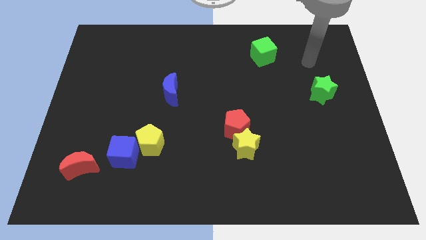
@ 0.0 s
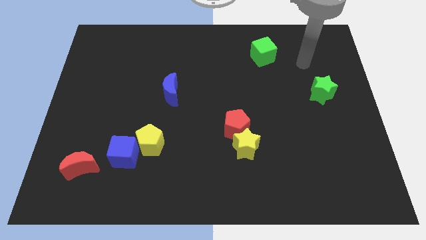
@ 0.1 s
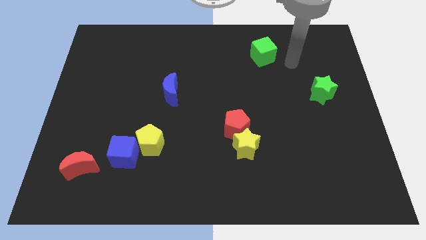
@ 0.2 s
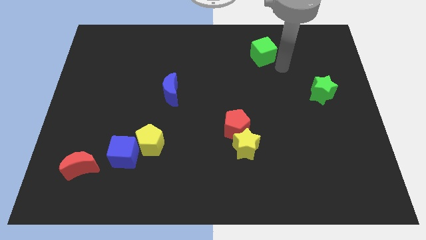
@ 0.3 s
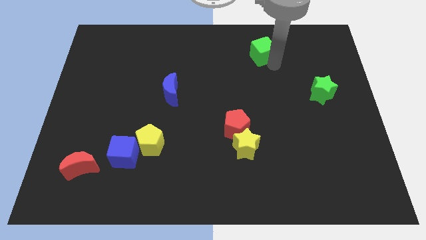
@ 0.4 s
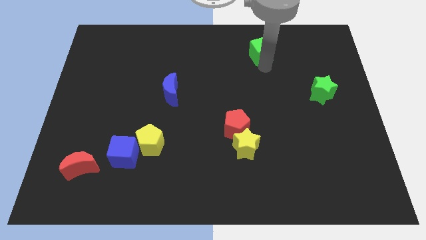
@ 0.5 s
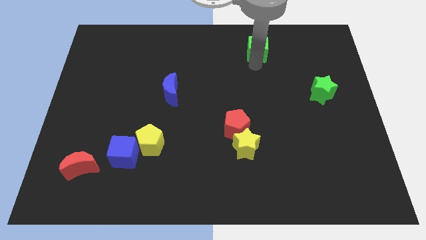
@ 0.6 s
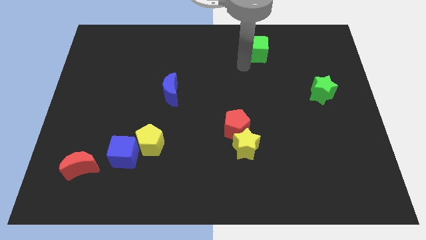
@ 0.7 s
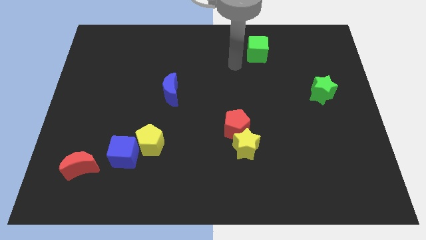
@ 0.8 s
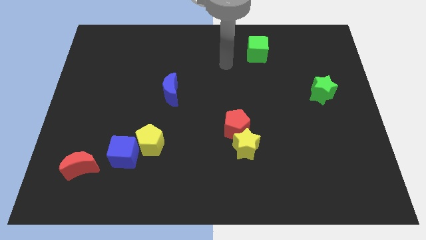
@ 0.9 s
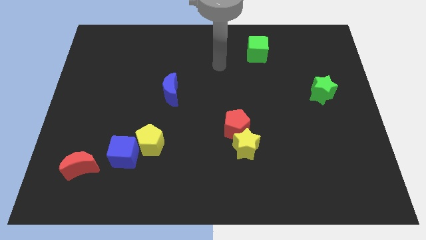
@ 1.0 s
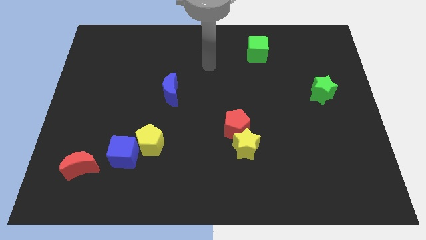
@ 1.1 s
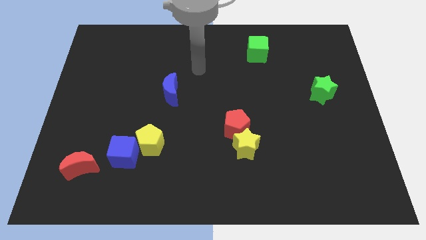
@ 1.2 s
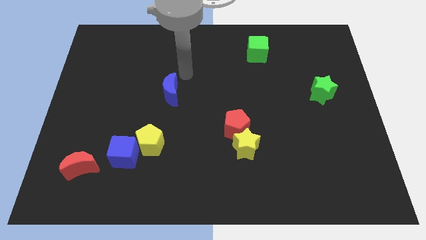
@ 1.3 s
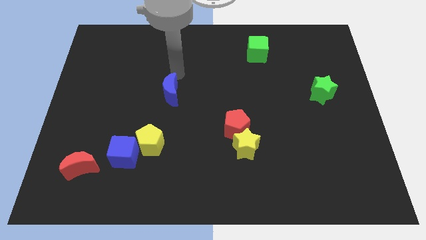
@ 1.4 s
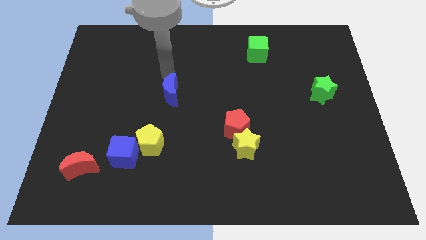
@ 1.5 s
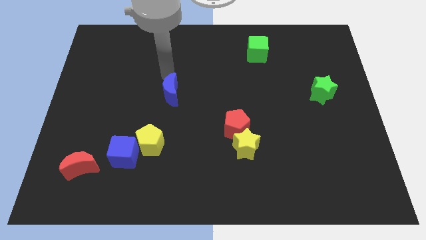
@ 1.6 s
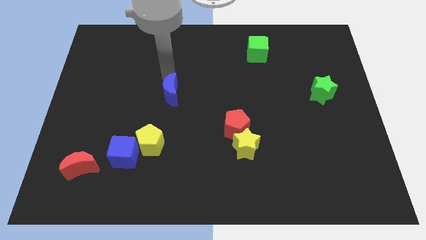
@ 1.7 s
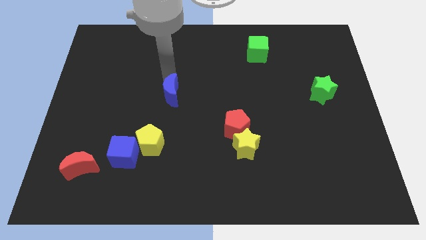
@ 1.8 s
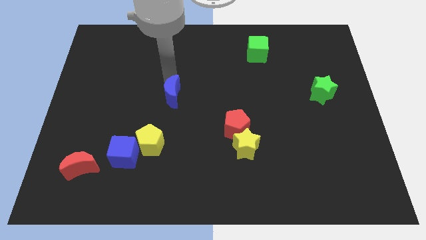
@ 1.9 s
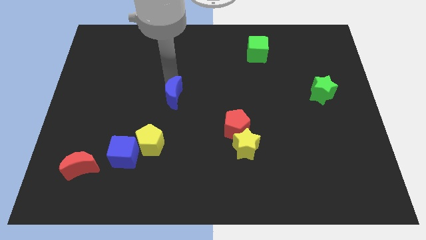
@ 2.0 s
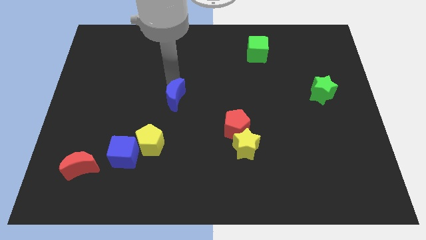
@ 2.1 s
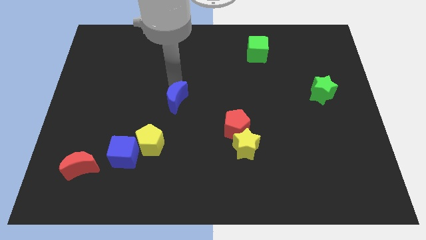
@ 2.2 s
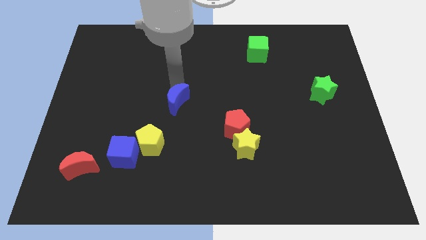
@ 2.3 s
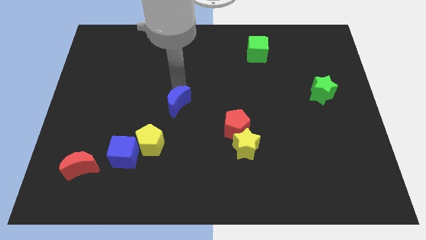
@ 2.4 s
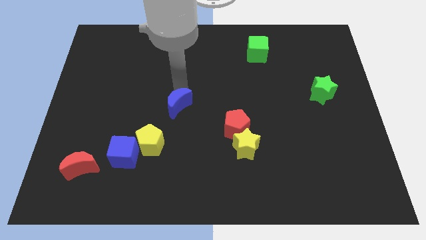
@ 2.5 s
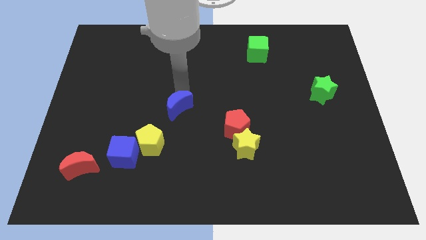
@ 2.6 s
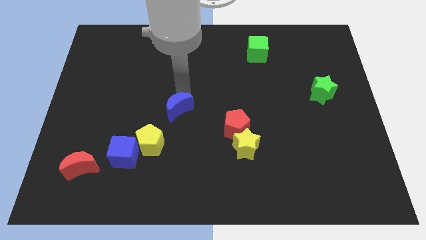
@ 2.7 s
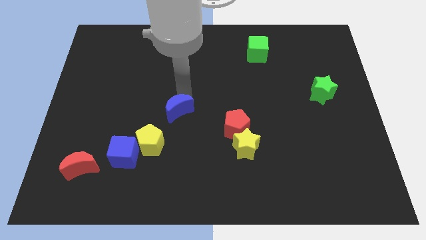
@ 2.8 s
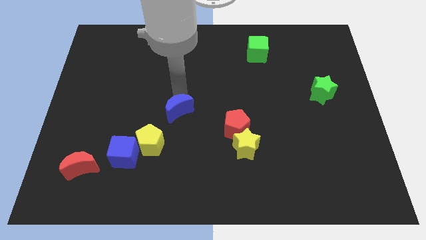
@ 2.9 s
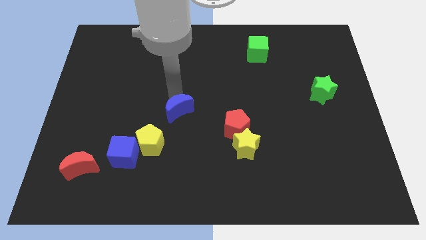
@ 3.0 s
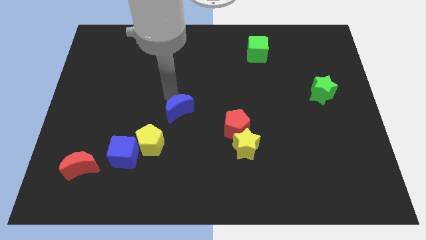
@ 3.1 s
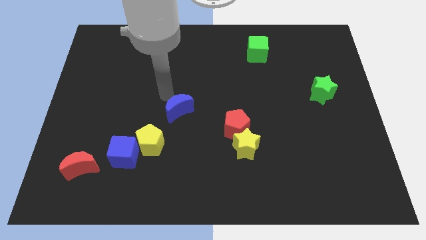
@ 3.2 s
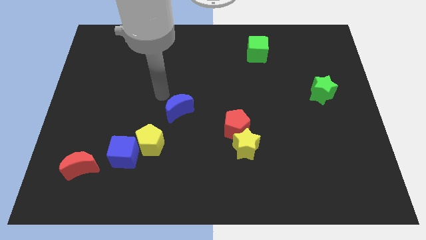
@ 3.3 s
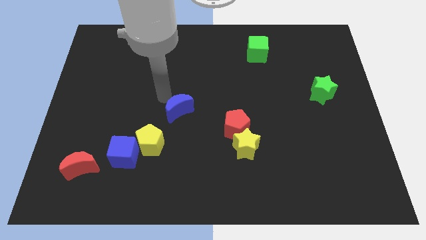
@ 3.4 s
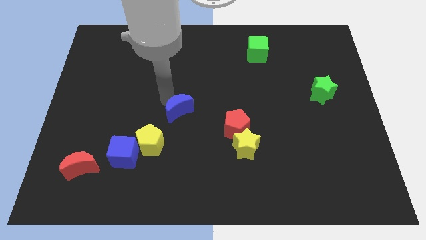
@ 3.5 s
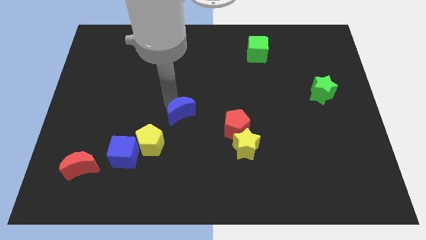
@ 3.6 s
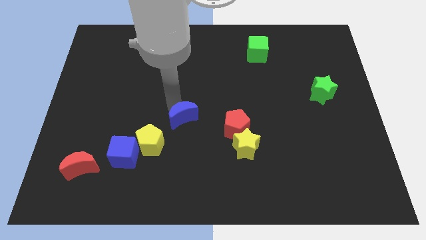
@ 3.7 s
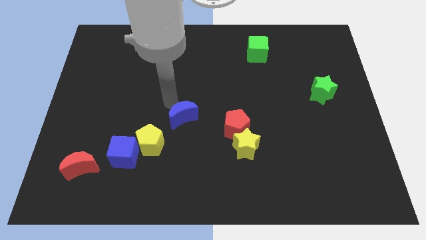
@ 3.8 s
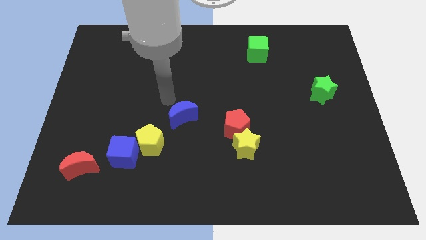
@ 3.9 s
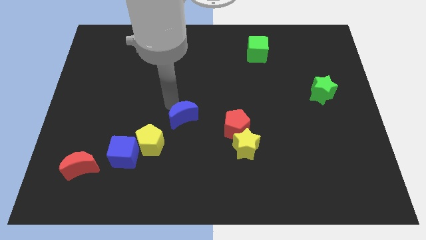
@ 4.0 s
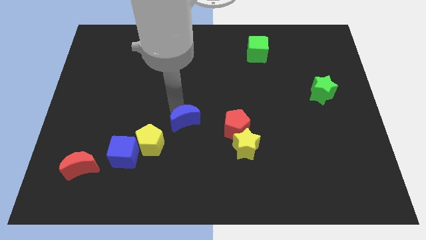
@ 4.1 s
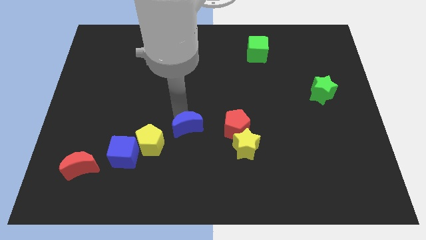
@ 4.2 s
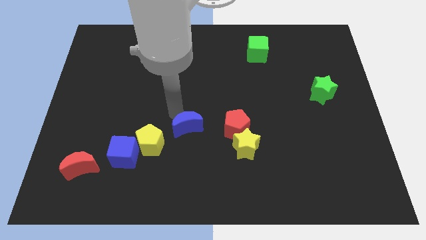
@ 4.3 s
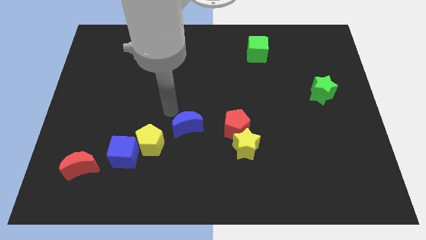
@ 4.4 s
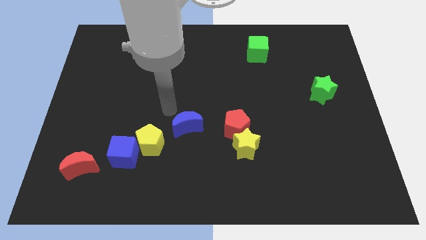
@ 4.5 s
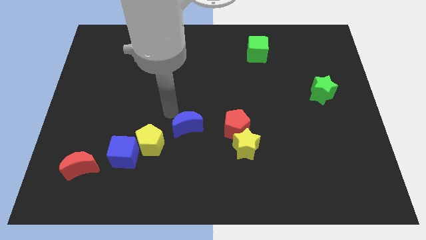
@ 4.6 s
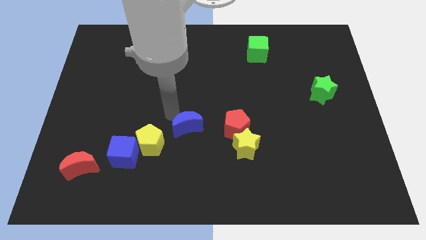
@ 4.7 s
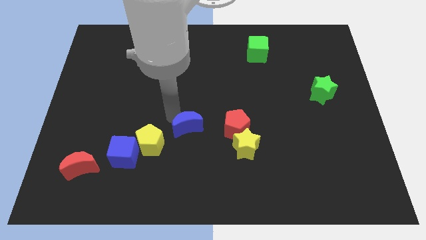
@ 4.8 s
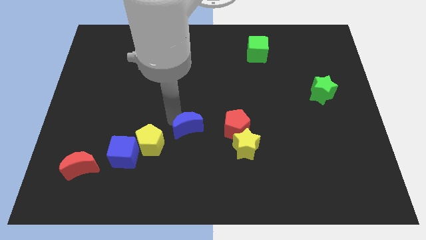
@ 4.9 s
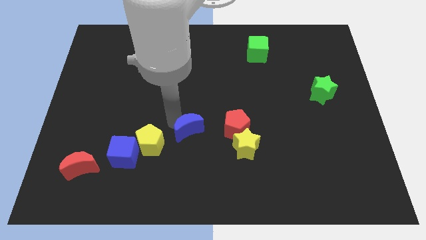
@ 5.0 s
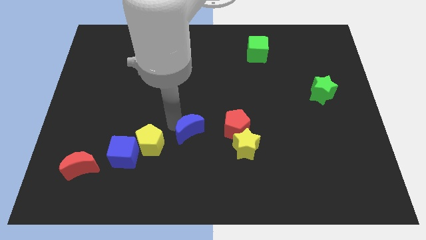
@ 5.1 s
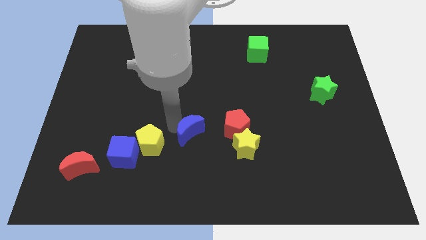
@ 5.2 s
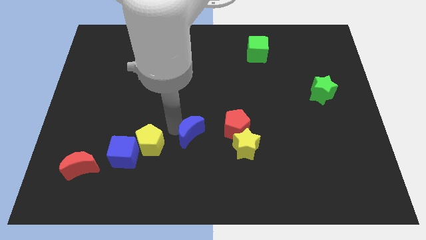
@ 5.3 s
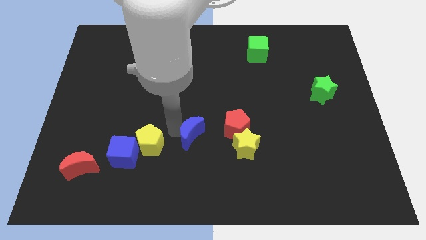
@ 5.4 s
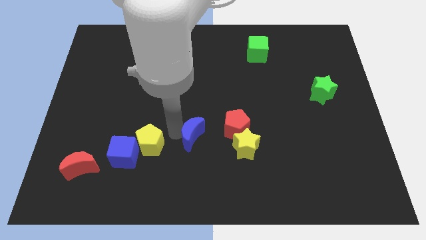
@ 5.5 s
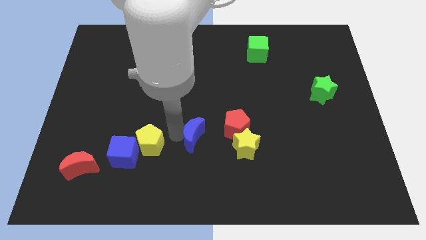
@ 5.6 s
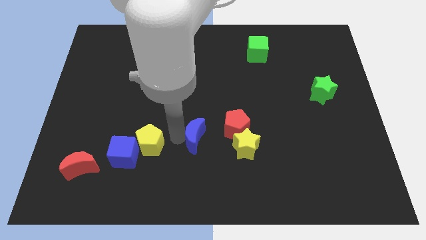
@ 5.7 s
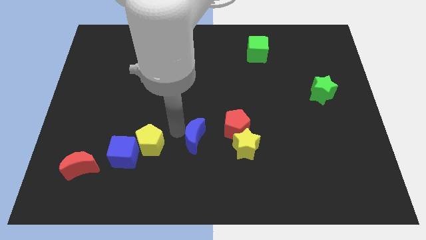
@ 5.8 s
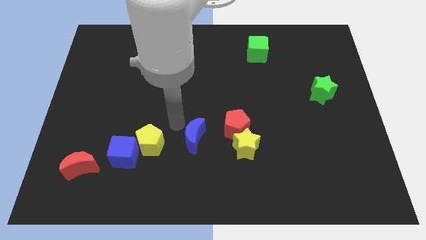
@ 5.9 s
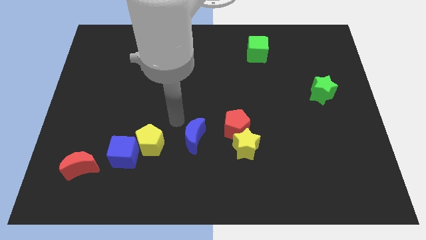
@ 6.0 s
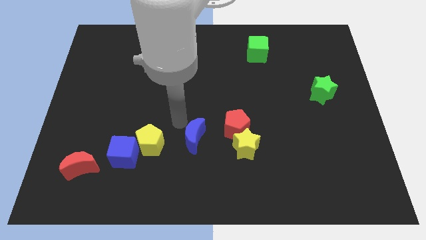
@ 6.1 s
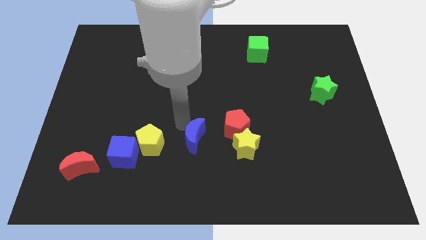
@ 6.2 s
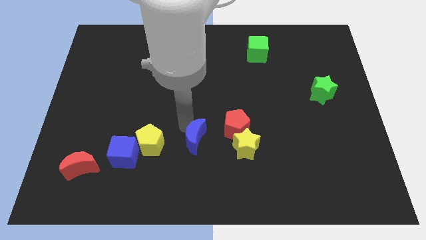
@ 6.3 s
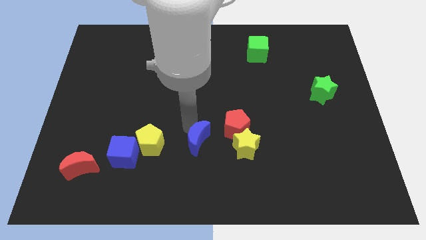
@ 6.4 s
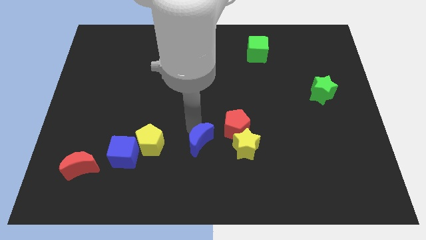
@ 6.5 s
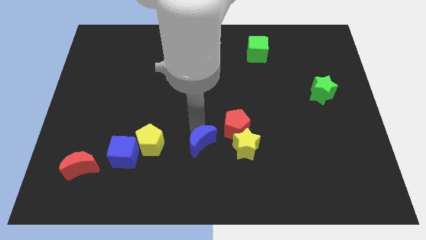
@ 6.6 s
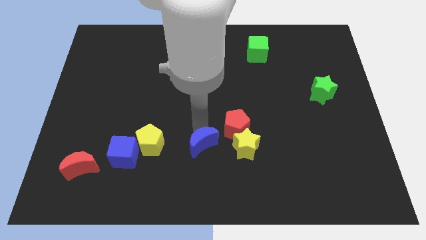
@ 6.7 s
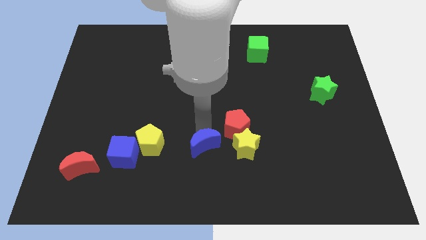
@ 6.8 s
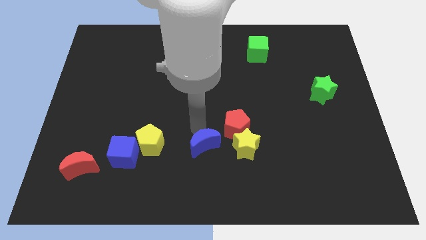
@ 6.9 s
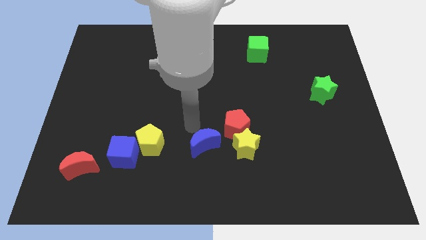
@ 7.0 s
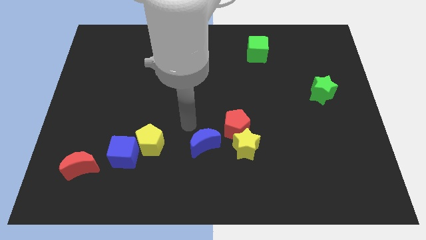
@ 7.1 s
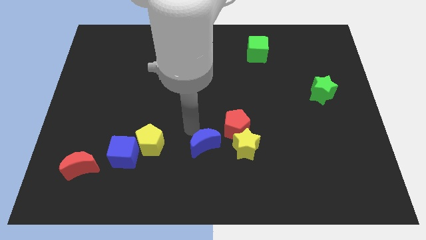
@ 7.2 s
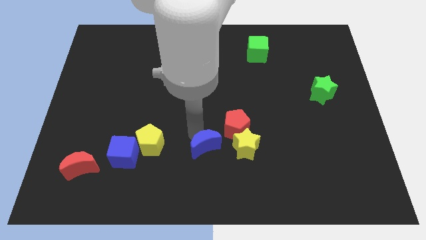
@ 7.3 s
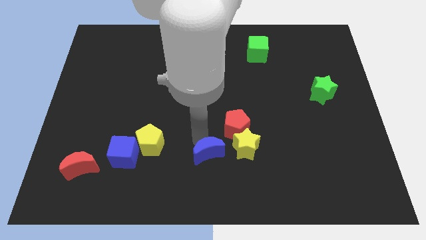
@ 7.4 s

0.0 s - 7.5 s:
move the blue moon to the bottom left side of the yellow star
